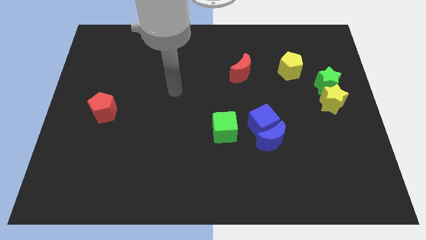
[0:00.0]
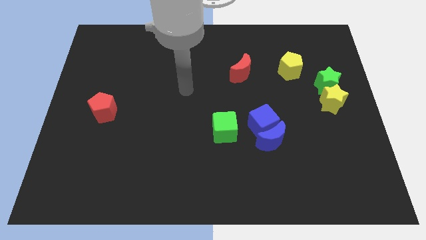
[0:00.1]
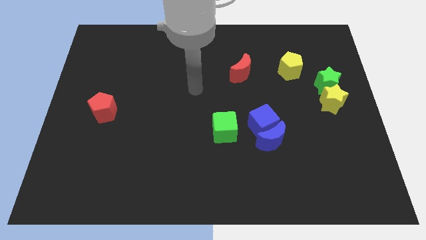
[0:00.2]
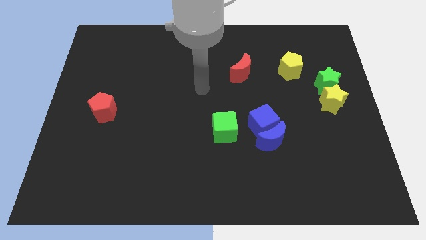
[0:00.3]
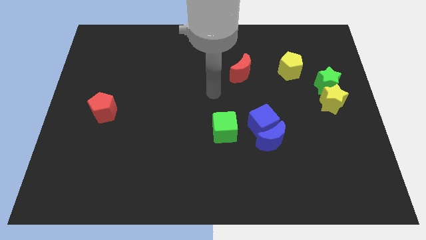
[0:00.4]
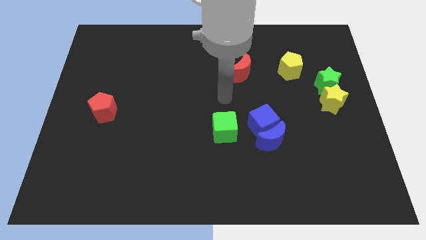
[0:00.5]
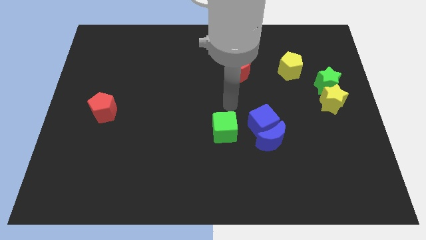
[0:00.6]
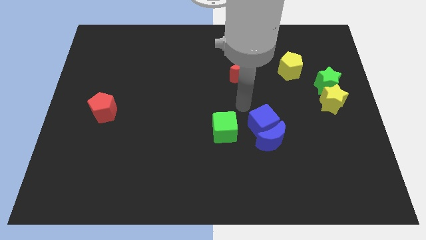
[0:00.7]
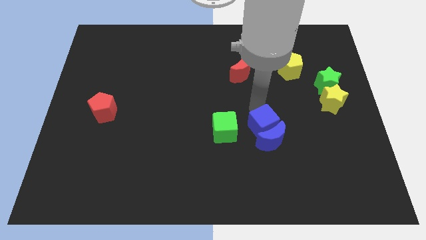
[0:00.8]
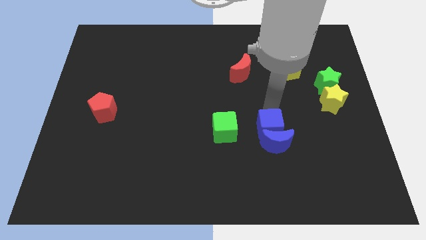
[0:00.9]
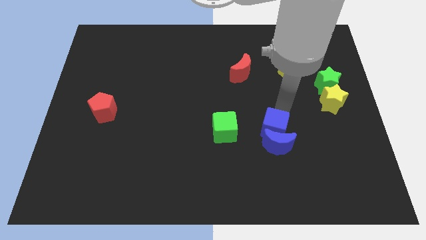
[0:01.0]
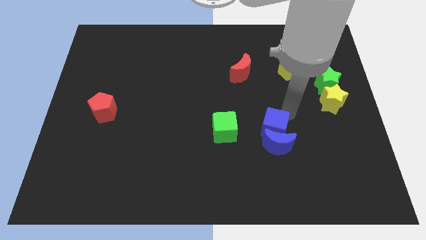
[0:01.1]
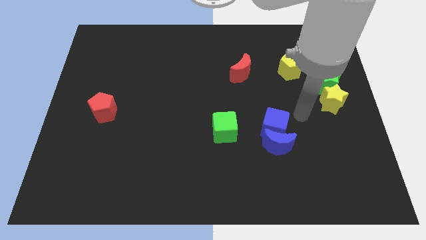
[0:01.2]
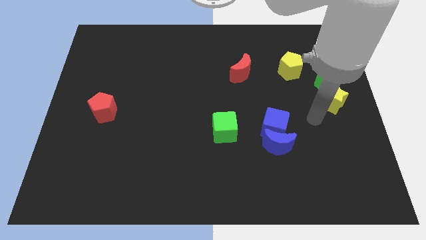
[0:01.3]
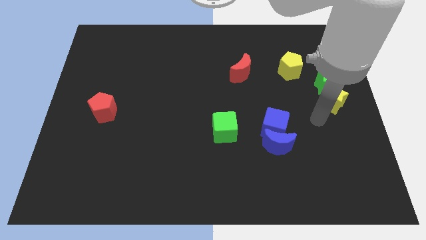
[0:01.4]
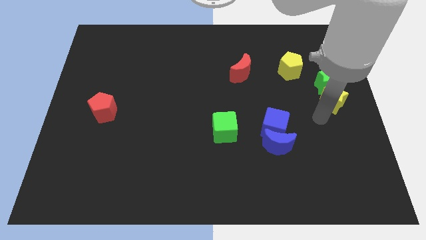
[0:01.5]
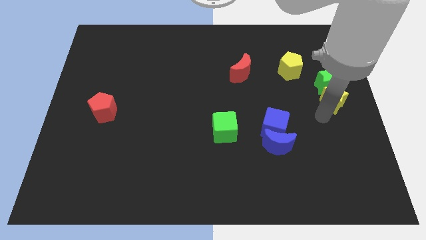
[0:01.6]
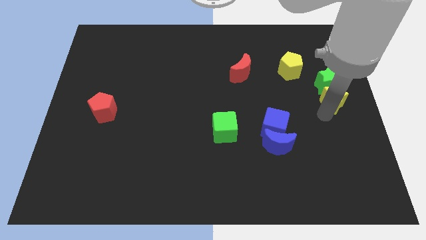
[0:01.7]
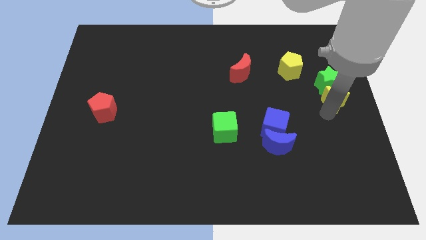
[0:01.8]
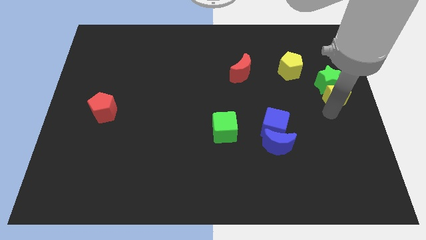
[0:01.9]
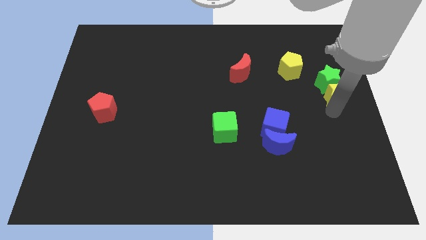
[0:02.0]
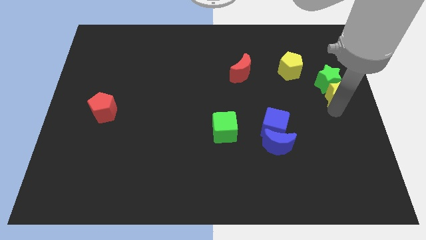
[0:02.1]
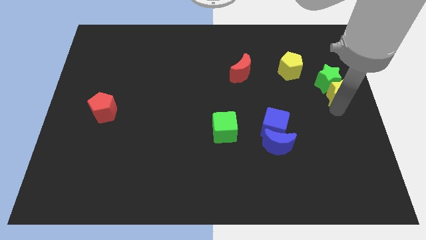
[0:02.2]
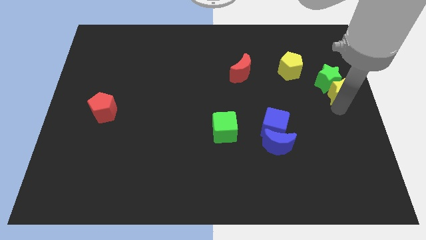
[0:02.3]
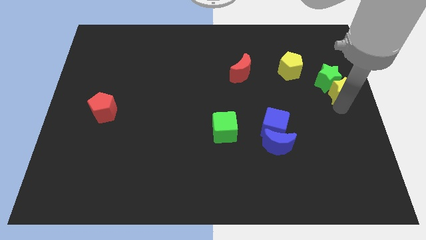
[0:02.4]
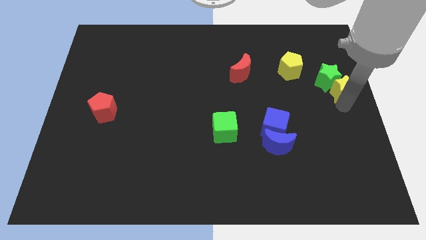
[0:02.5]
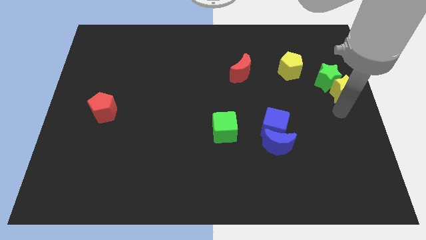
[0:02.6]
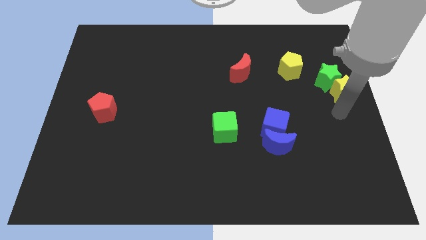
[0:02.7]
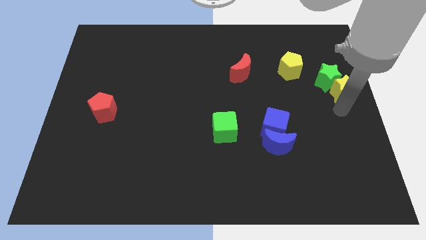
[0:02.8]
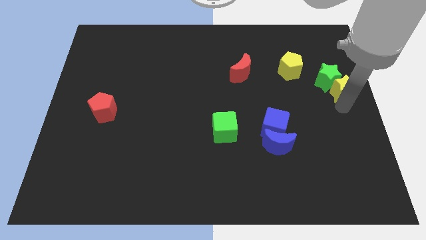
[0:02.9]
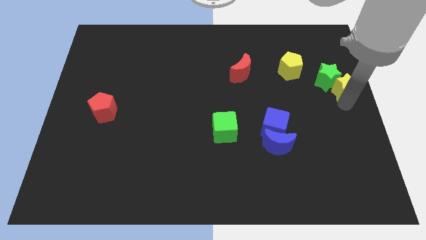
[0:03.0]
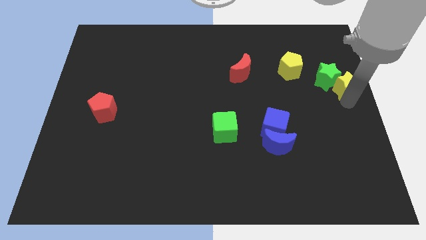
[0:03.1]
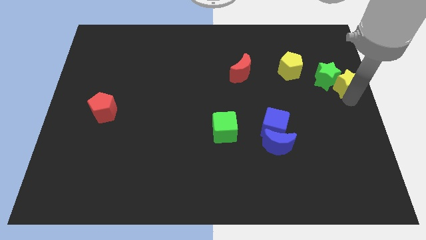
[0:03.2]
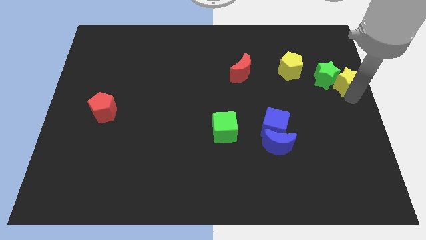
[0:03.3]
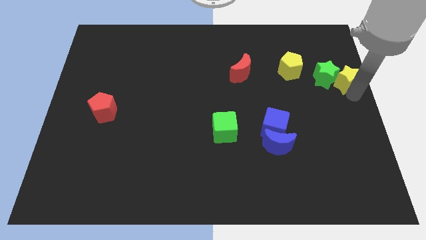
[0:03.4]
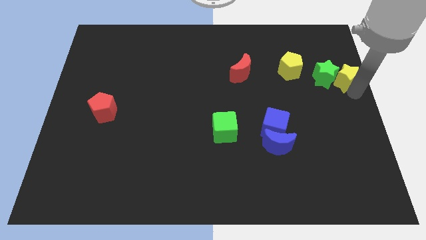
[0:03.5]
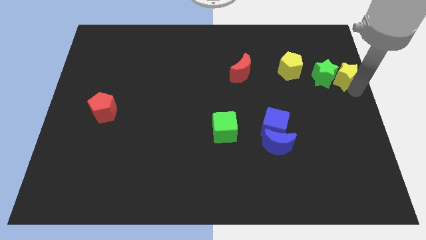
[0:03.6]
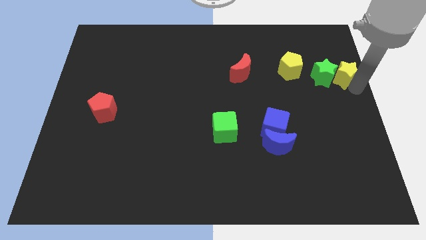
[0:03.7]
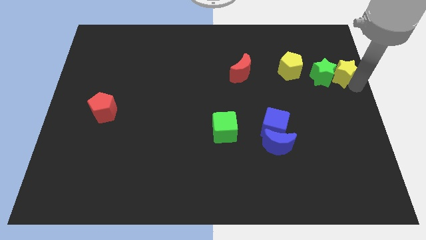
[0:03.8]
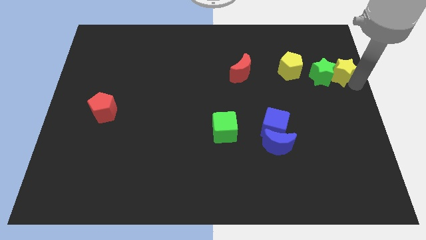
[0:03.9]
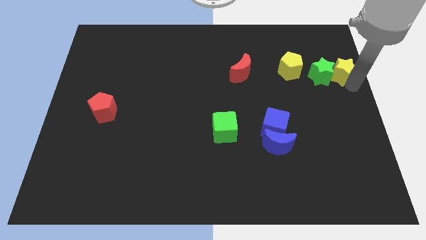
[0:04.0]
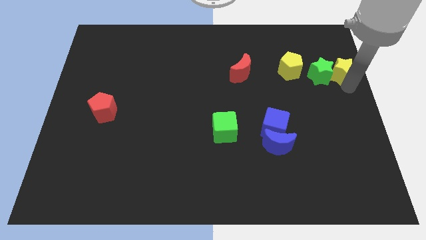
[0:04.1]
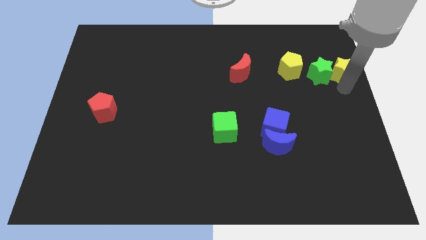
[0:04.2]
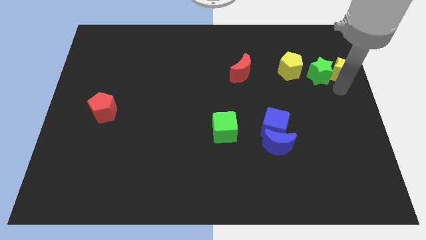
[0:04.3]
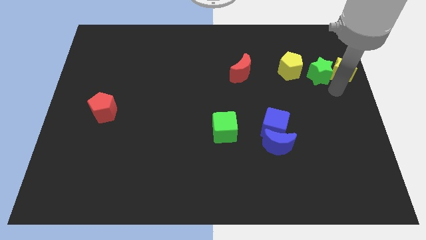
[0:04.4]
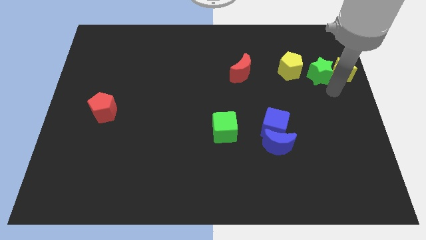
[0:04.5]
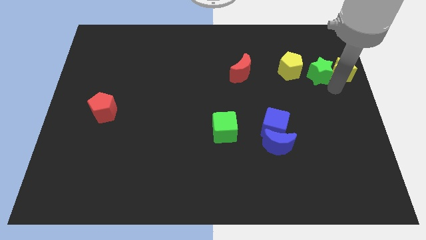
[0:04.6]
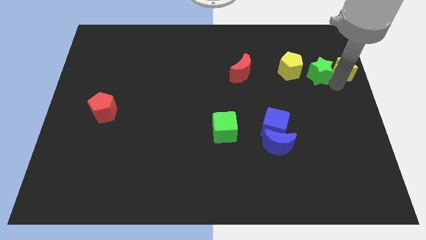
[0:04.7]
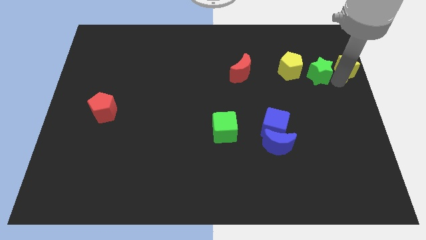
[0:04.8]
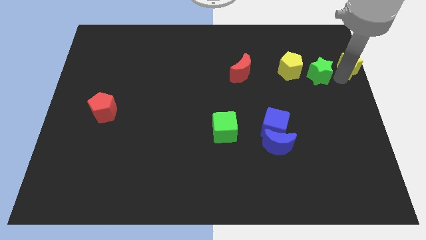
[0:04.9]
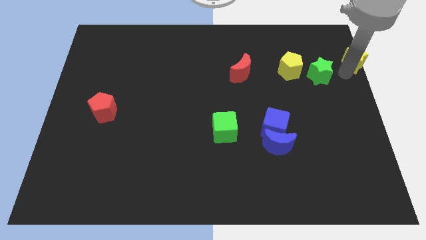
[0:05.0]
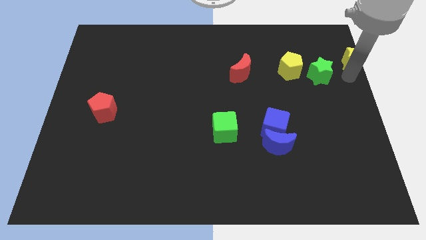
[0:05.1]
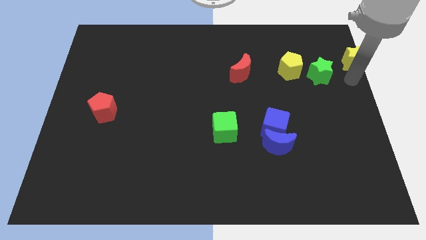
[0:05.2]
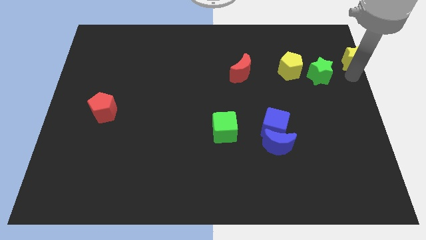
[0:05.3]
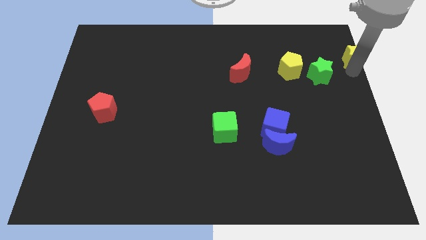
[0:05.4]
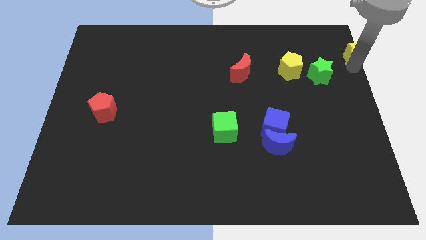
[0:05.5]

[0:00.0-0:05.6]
slide the yellow star to the upper right corner
